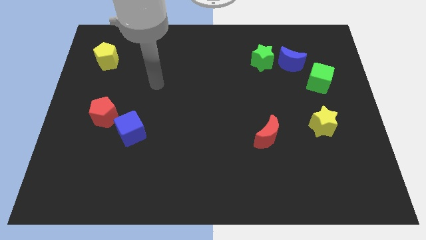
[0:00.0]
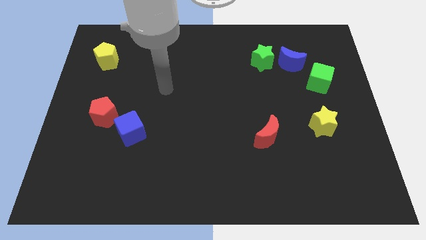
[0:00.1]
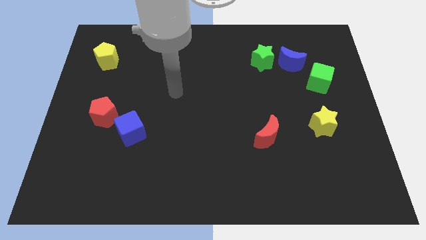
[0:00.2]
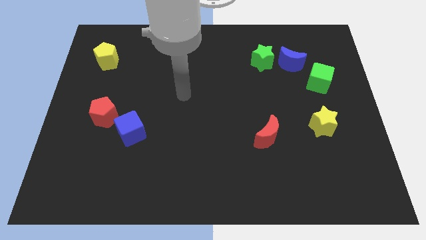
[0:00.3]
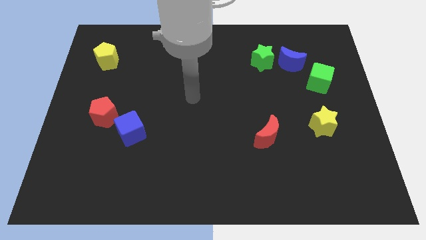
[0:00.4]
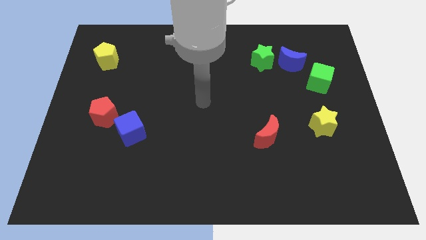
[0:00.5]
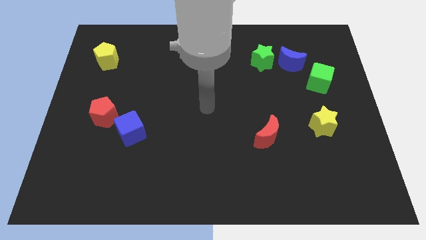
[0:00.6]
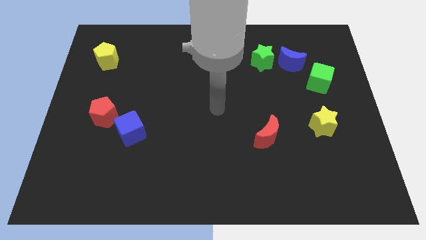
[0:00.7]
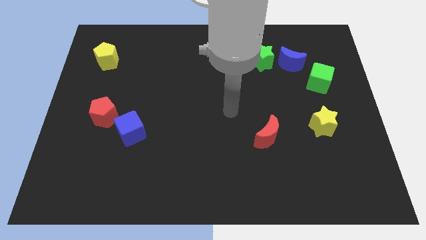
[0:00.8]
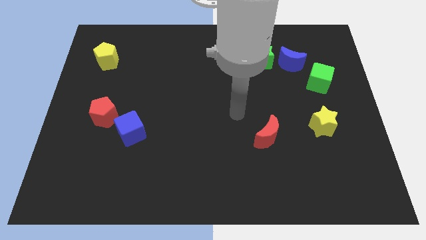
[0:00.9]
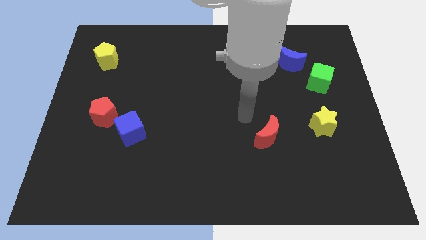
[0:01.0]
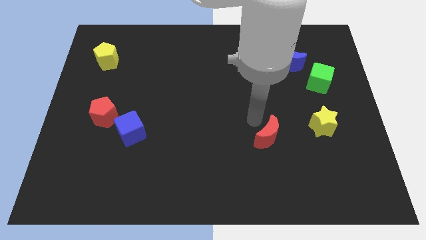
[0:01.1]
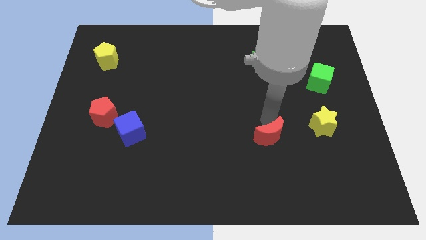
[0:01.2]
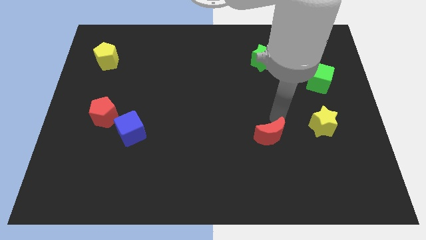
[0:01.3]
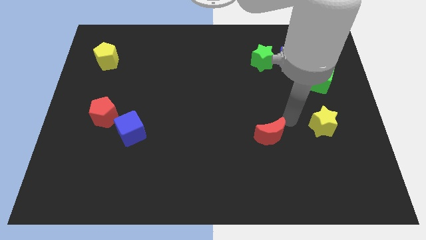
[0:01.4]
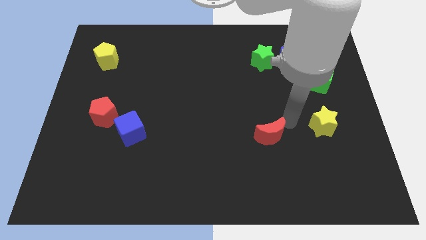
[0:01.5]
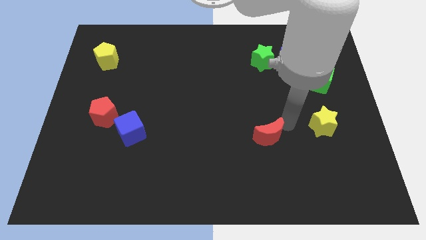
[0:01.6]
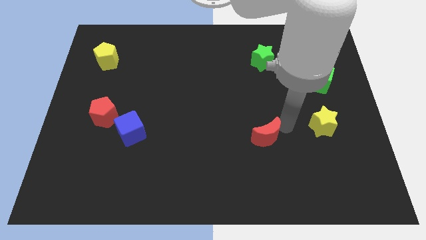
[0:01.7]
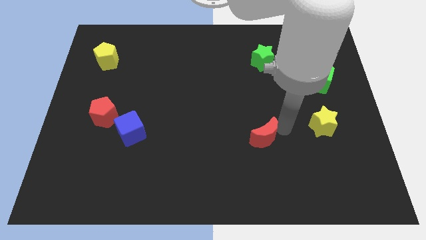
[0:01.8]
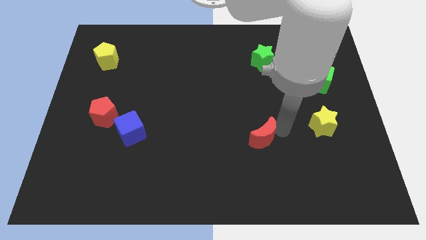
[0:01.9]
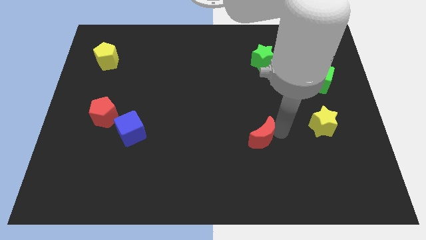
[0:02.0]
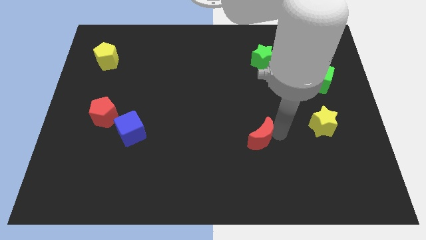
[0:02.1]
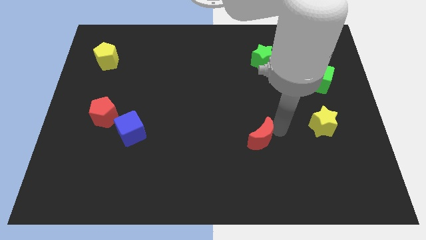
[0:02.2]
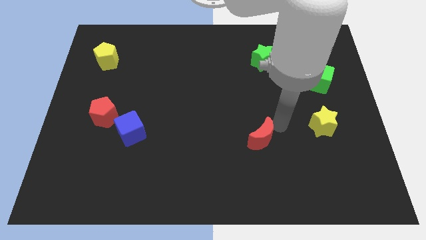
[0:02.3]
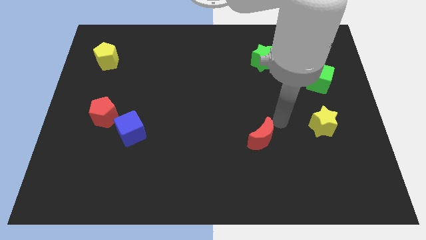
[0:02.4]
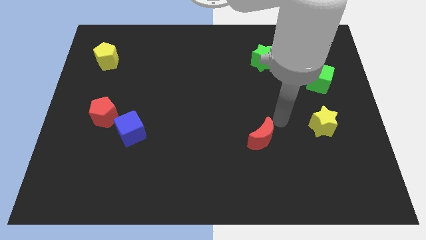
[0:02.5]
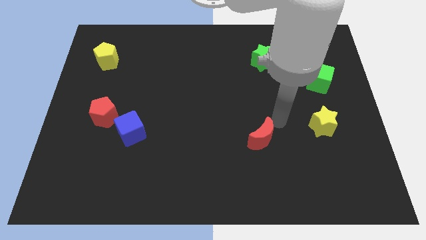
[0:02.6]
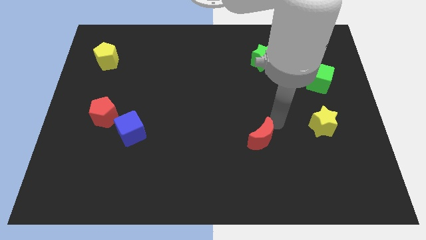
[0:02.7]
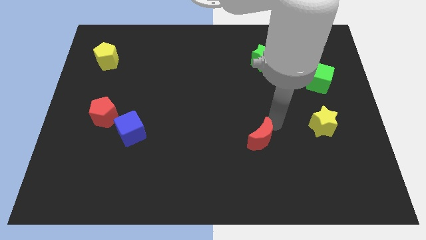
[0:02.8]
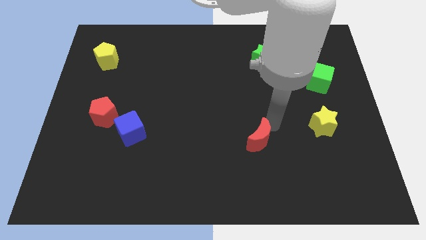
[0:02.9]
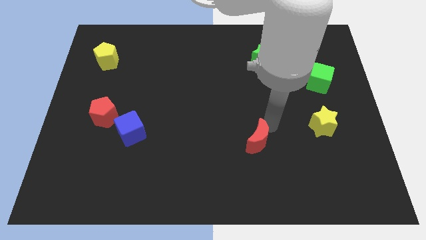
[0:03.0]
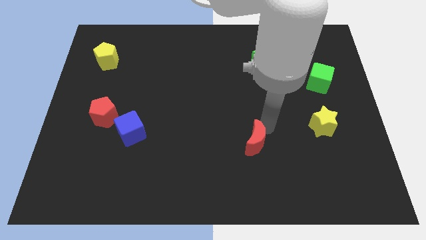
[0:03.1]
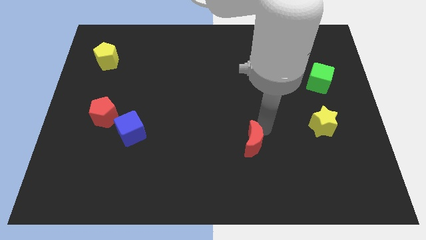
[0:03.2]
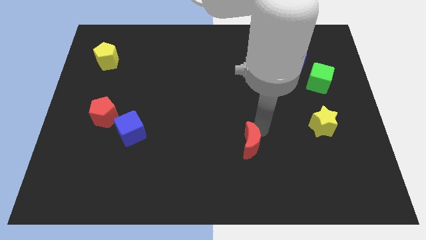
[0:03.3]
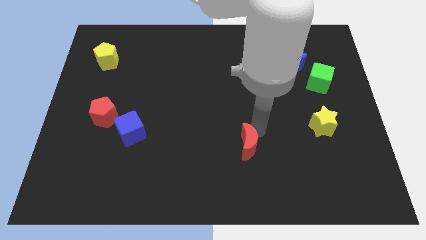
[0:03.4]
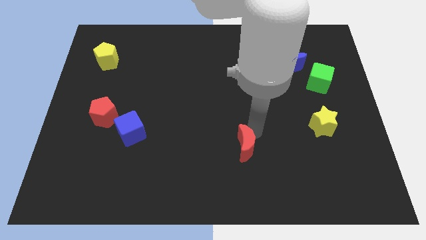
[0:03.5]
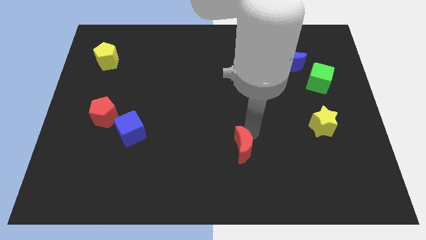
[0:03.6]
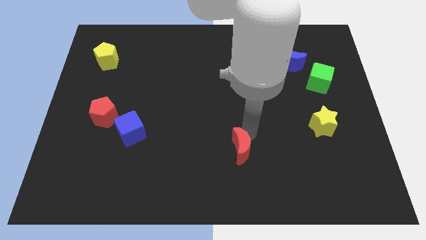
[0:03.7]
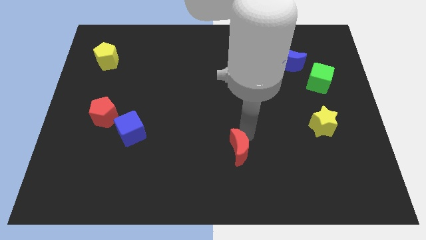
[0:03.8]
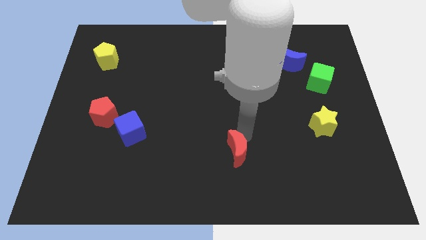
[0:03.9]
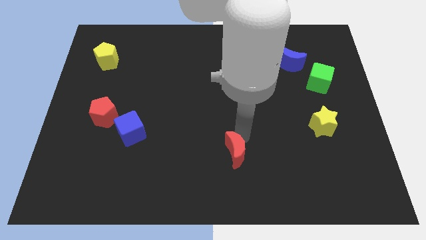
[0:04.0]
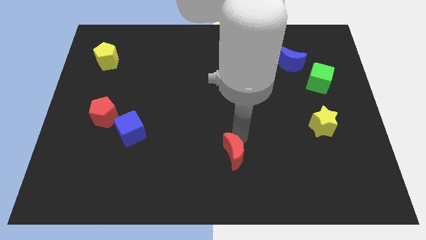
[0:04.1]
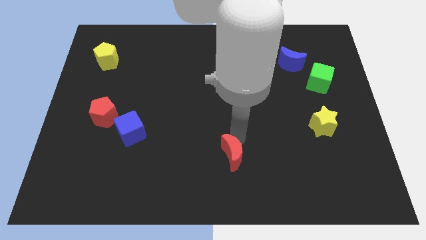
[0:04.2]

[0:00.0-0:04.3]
slide the red moon to the bottom

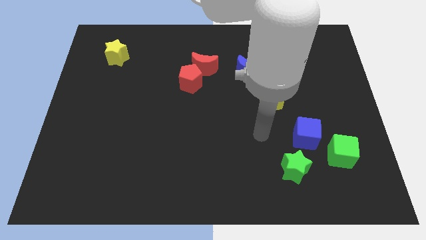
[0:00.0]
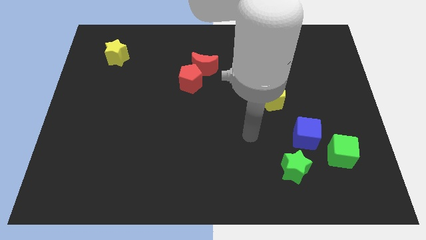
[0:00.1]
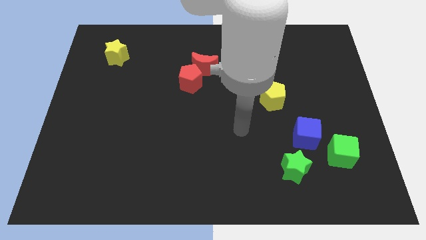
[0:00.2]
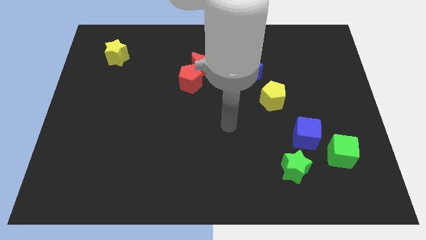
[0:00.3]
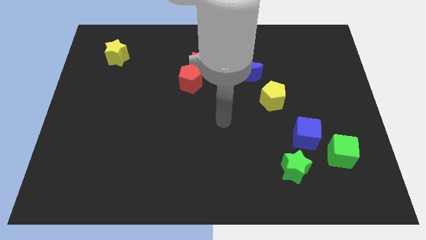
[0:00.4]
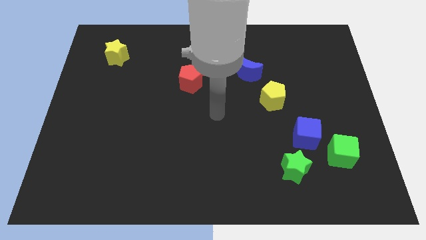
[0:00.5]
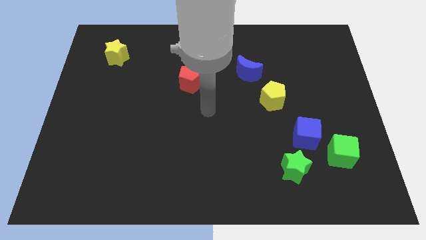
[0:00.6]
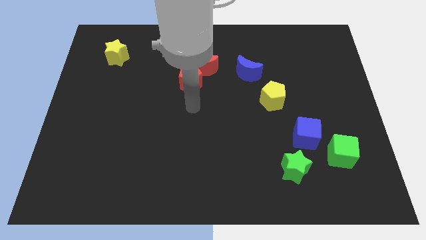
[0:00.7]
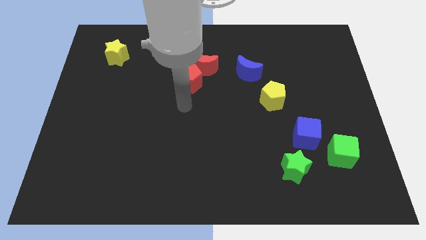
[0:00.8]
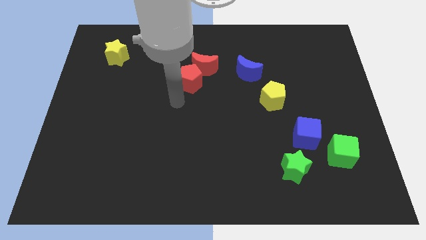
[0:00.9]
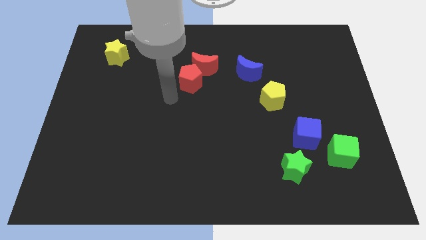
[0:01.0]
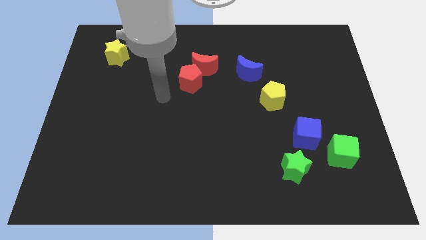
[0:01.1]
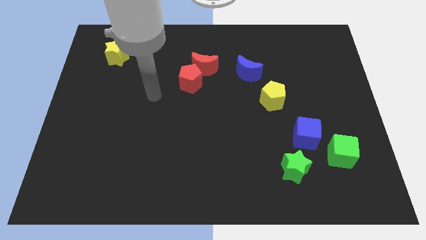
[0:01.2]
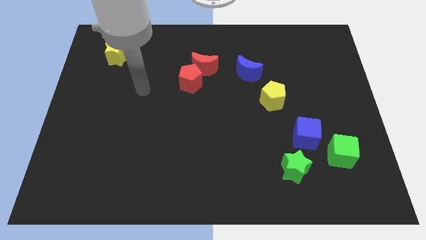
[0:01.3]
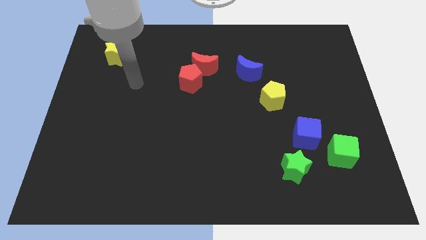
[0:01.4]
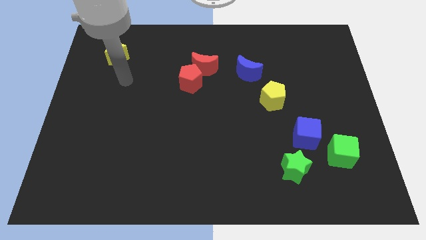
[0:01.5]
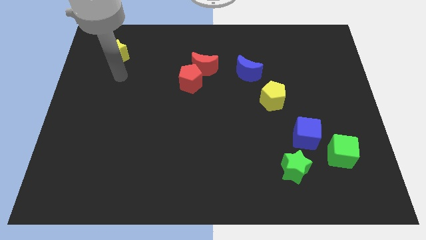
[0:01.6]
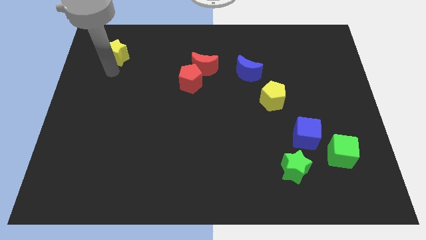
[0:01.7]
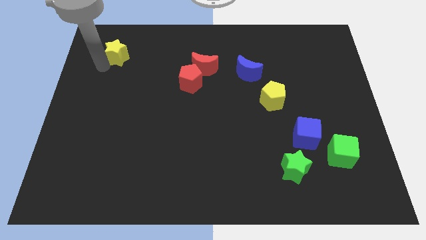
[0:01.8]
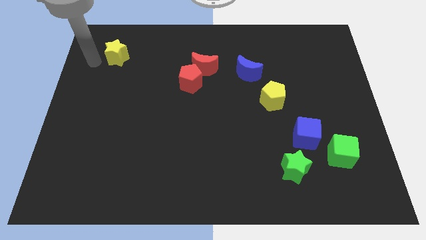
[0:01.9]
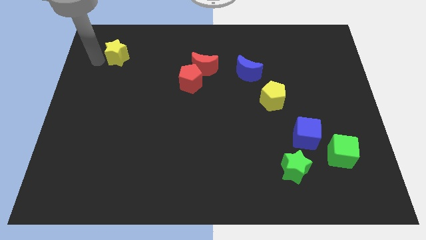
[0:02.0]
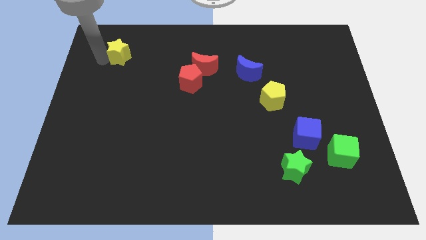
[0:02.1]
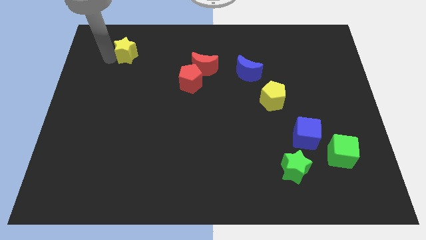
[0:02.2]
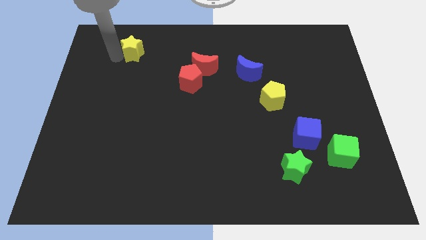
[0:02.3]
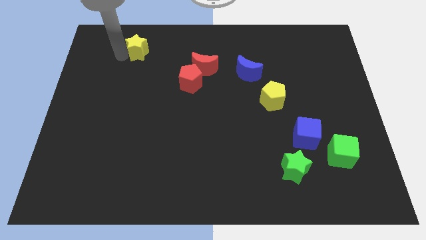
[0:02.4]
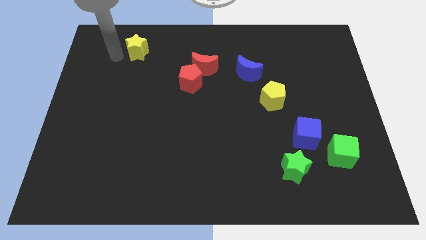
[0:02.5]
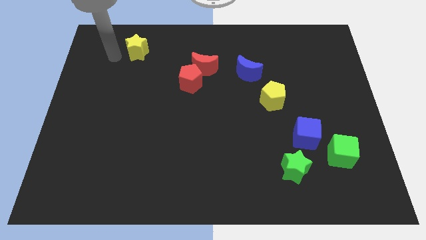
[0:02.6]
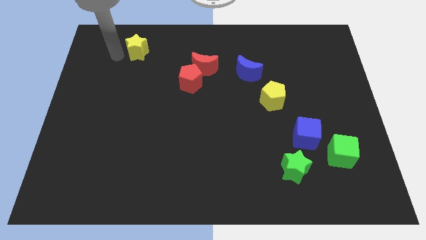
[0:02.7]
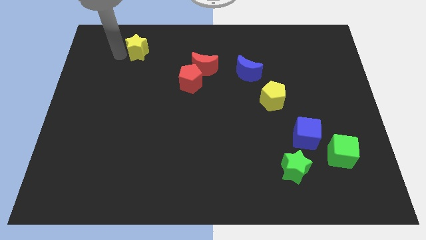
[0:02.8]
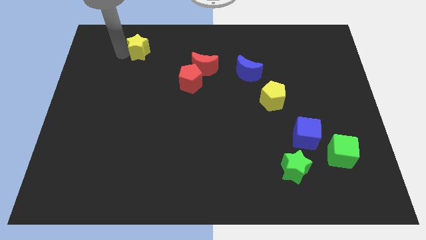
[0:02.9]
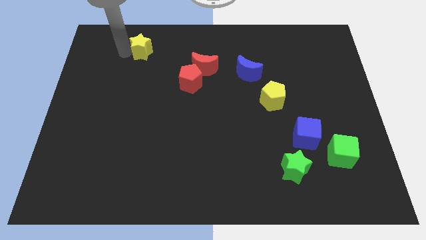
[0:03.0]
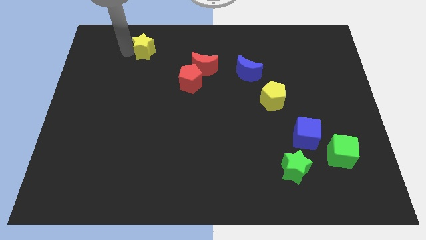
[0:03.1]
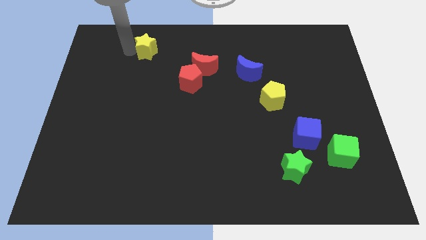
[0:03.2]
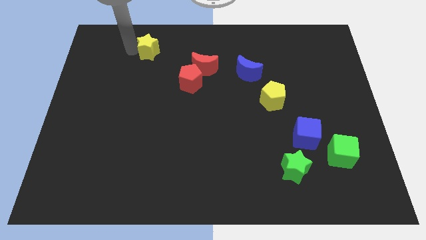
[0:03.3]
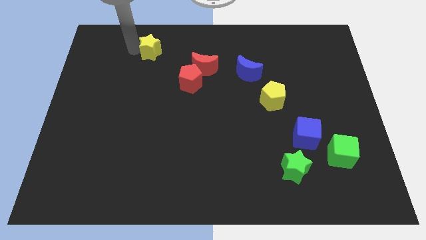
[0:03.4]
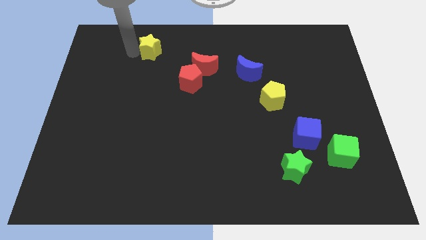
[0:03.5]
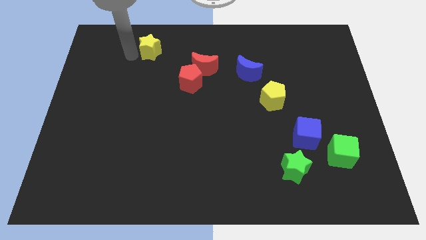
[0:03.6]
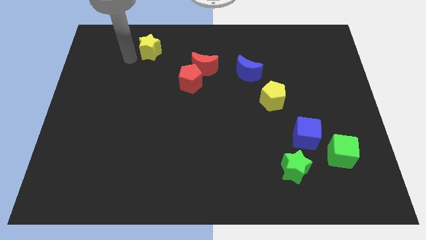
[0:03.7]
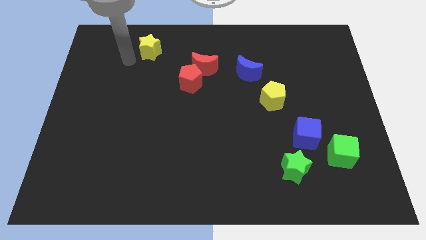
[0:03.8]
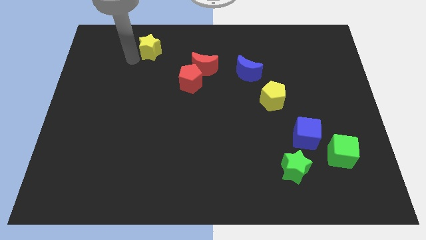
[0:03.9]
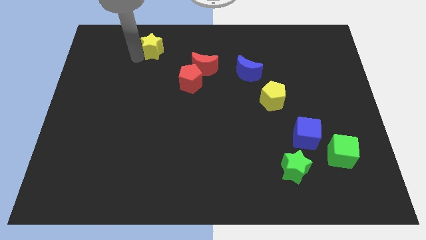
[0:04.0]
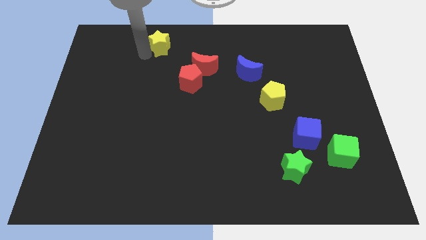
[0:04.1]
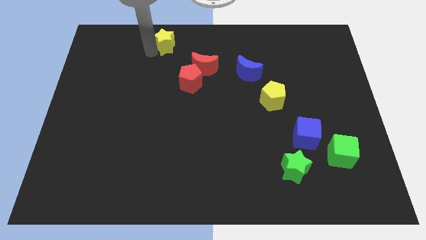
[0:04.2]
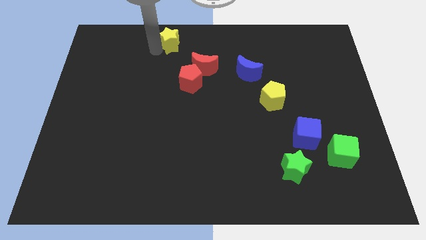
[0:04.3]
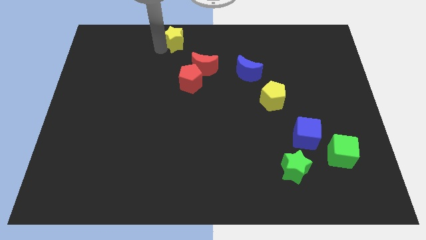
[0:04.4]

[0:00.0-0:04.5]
put the yellow star to the towards your base
